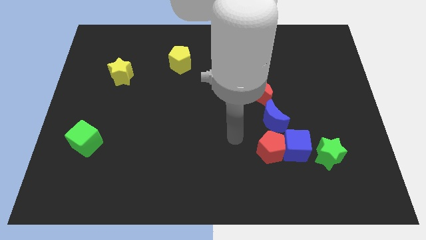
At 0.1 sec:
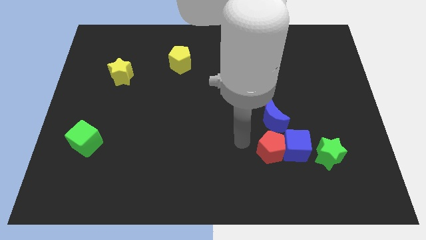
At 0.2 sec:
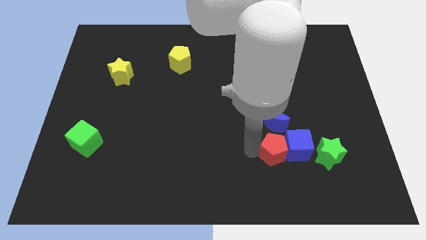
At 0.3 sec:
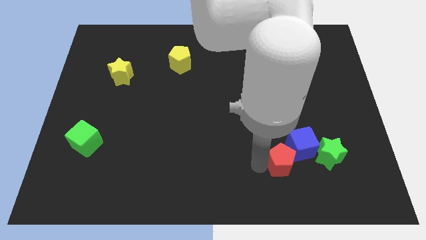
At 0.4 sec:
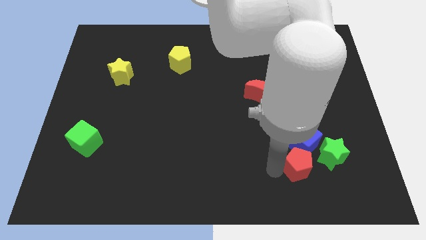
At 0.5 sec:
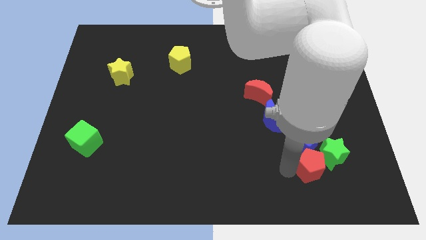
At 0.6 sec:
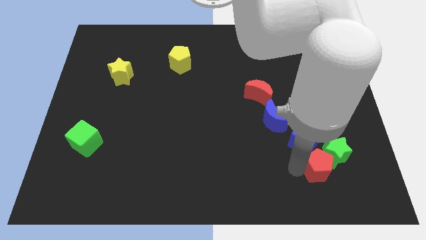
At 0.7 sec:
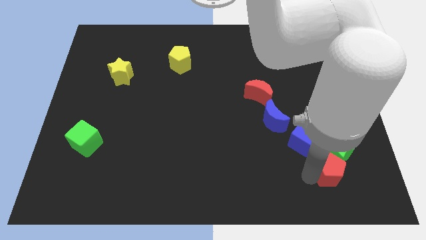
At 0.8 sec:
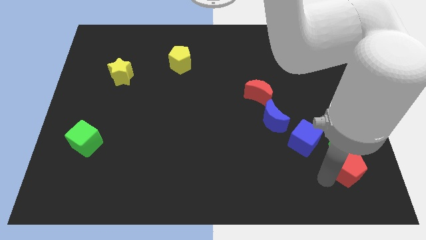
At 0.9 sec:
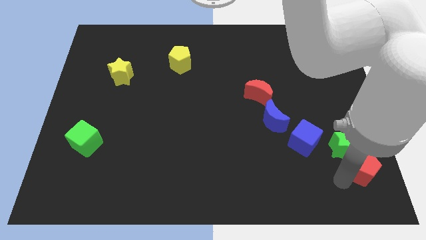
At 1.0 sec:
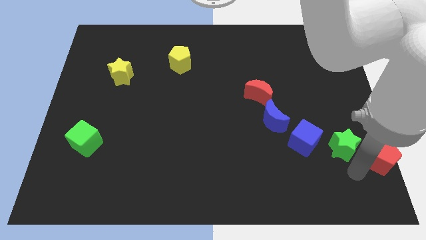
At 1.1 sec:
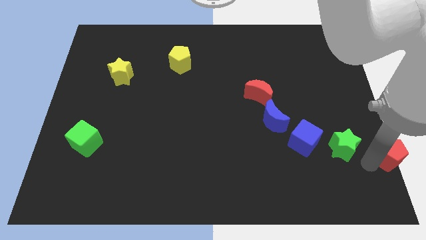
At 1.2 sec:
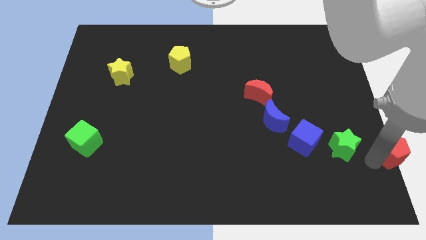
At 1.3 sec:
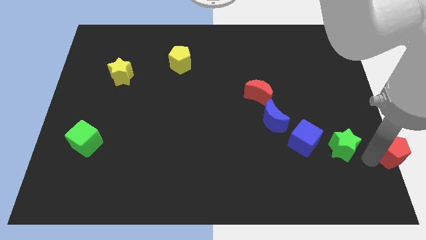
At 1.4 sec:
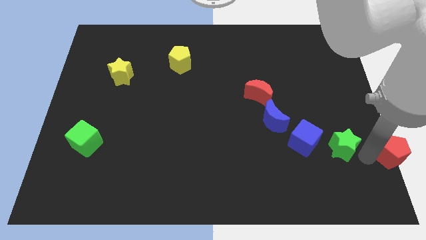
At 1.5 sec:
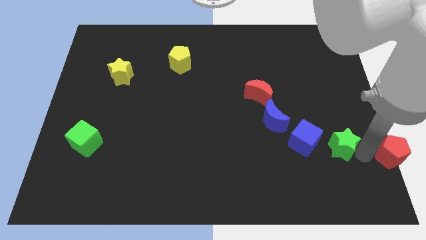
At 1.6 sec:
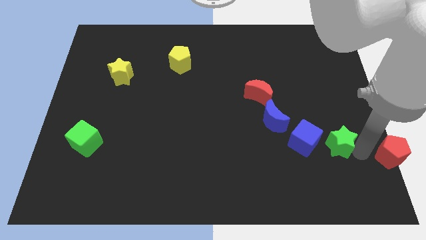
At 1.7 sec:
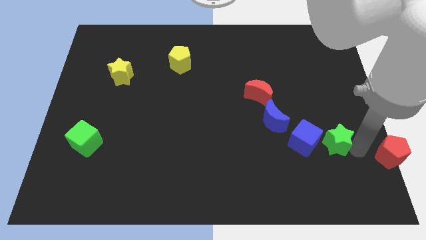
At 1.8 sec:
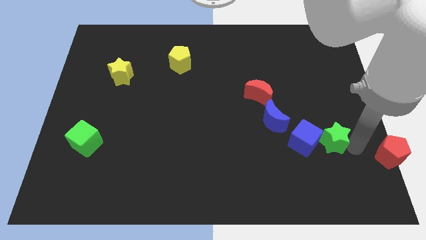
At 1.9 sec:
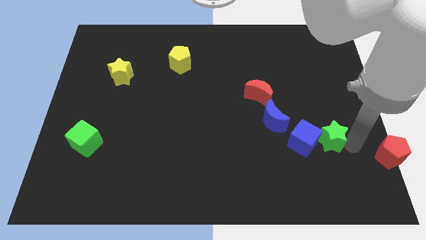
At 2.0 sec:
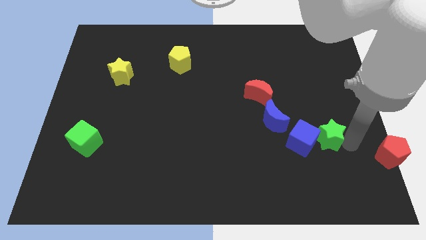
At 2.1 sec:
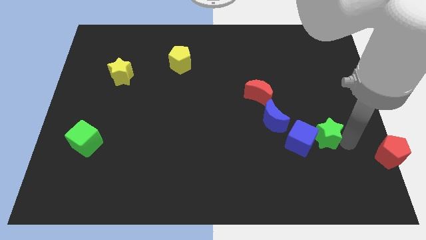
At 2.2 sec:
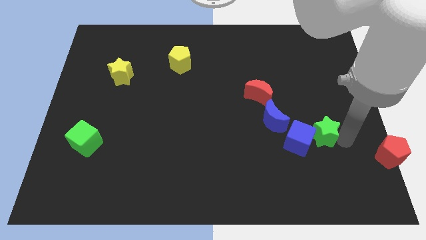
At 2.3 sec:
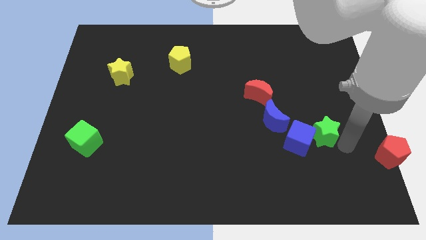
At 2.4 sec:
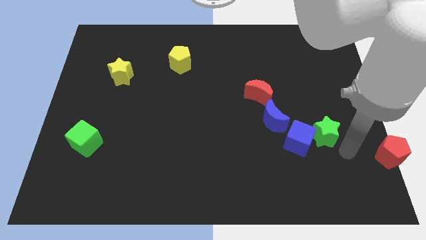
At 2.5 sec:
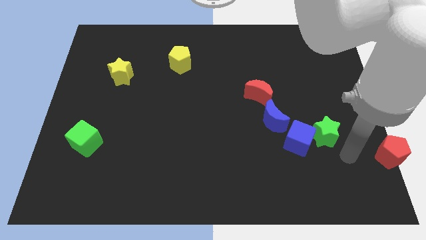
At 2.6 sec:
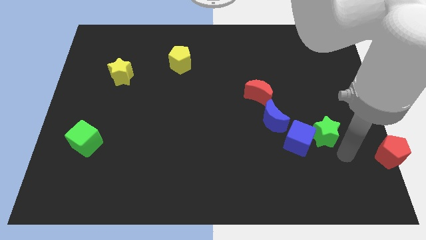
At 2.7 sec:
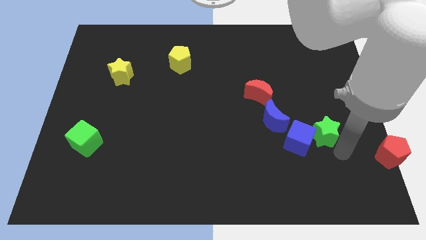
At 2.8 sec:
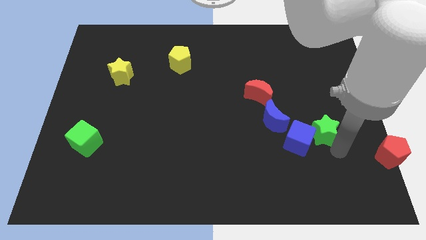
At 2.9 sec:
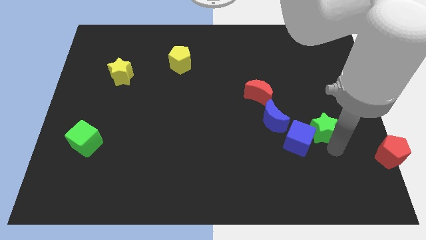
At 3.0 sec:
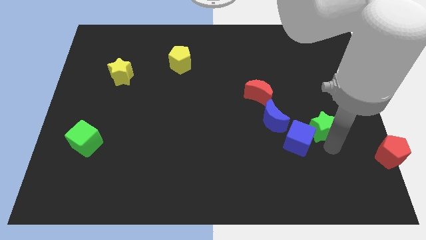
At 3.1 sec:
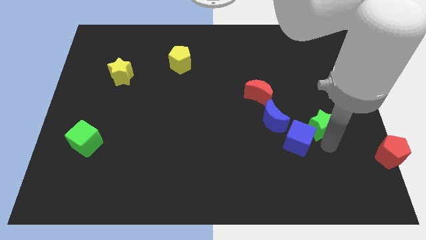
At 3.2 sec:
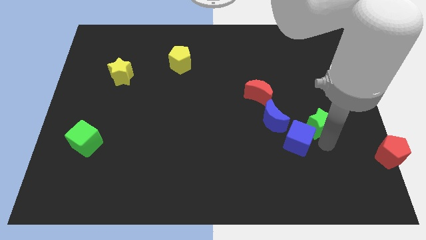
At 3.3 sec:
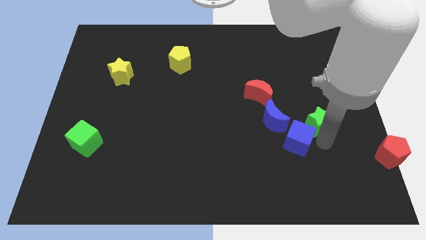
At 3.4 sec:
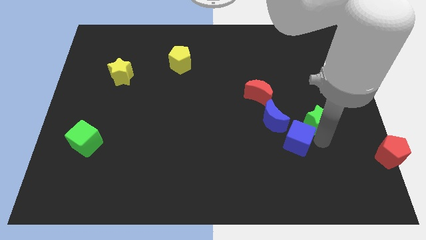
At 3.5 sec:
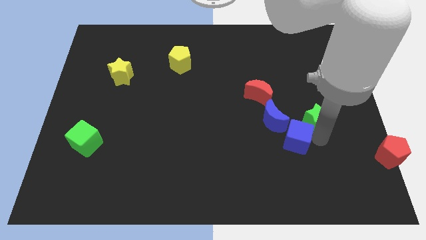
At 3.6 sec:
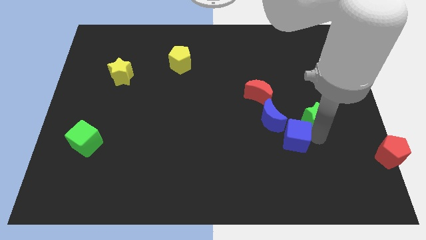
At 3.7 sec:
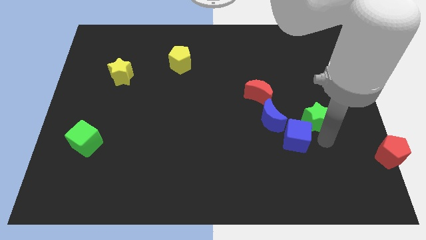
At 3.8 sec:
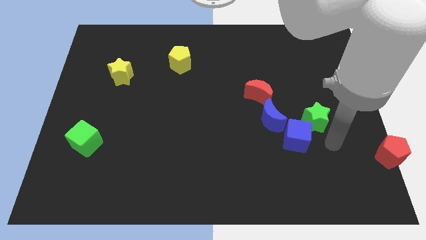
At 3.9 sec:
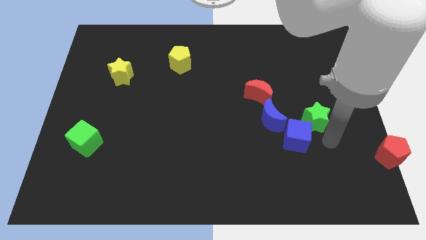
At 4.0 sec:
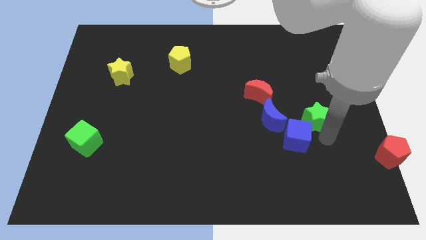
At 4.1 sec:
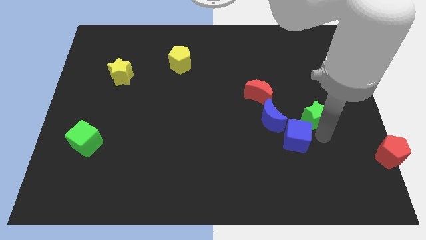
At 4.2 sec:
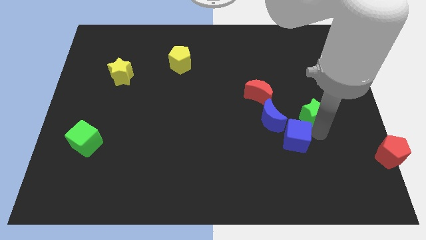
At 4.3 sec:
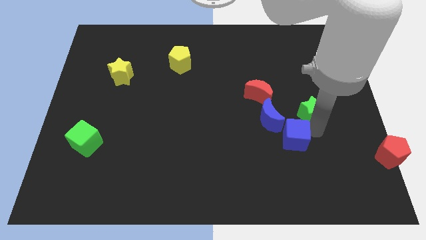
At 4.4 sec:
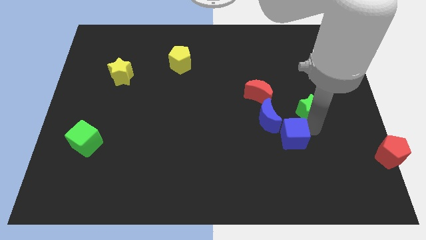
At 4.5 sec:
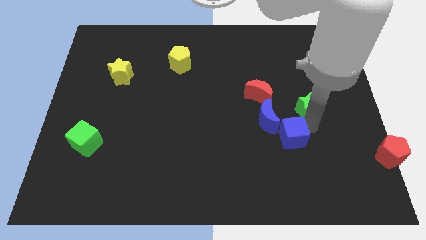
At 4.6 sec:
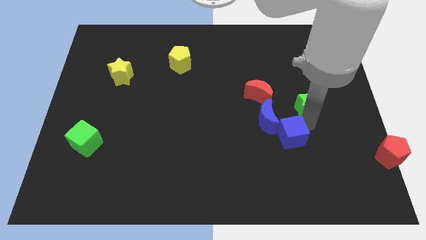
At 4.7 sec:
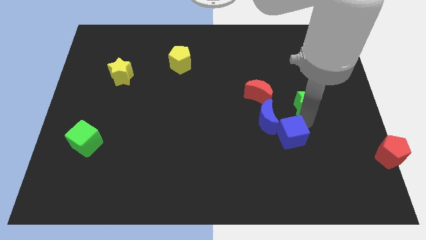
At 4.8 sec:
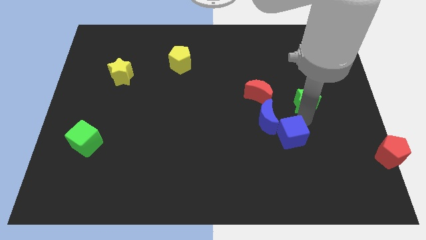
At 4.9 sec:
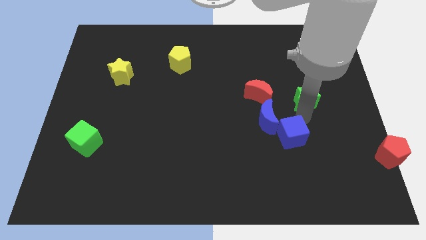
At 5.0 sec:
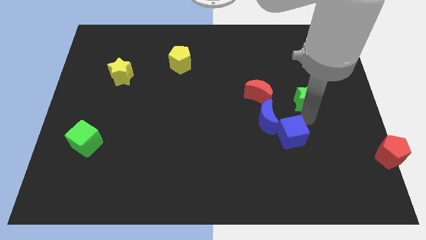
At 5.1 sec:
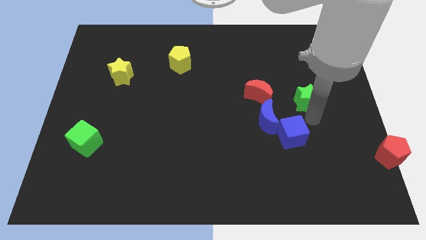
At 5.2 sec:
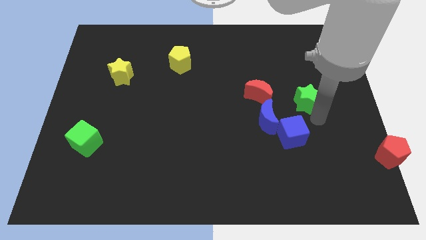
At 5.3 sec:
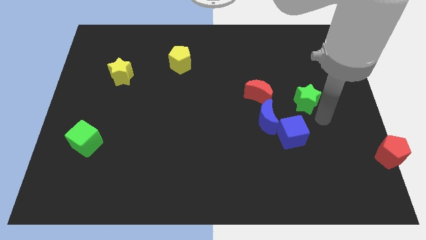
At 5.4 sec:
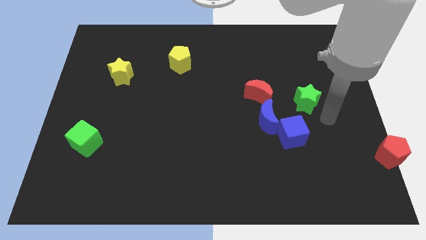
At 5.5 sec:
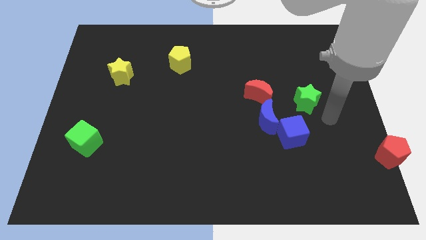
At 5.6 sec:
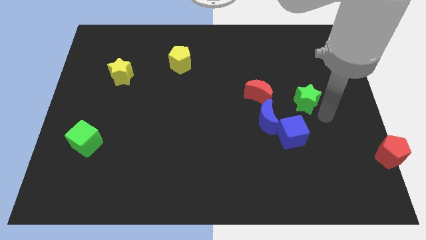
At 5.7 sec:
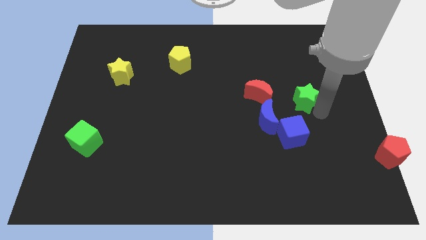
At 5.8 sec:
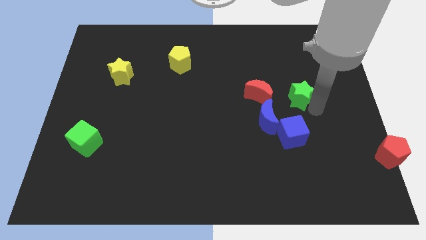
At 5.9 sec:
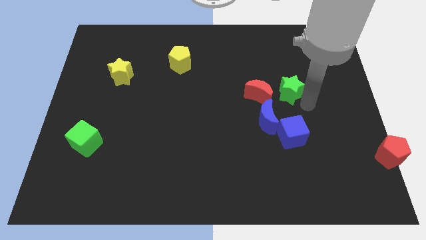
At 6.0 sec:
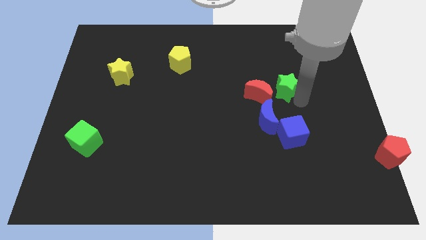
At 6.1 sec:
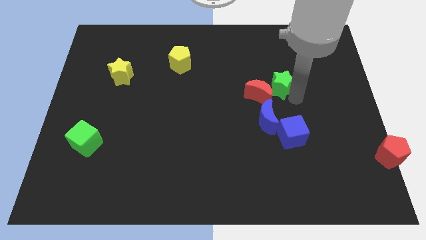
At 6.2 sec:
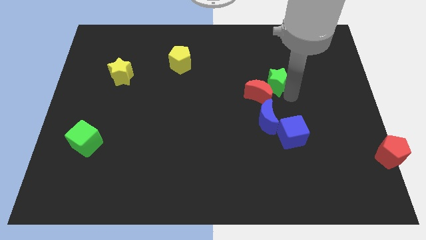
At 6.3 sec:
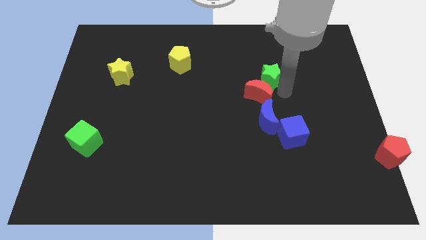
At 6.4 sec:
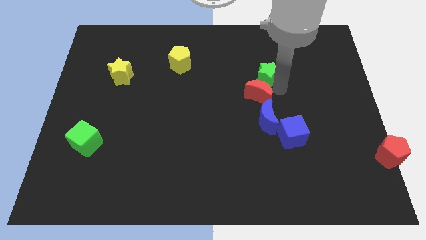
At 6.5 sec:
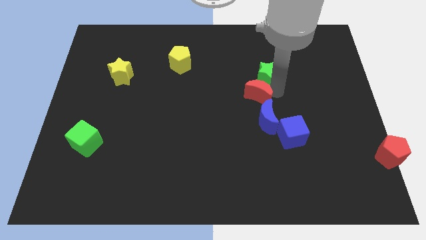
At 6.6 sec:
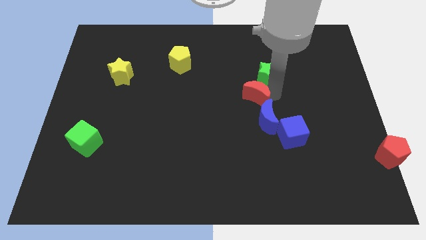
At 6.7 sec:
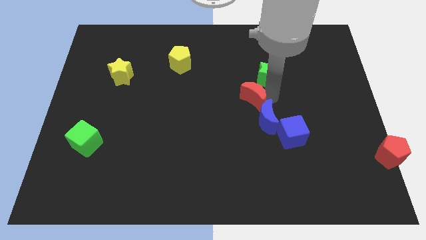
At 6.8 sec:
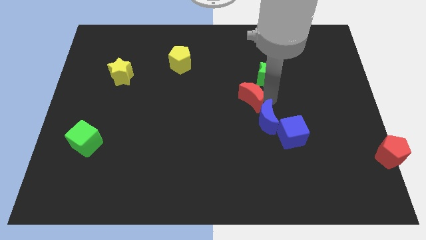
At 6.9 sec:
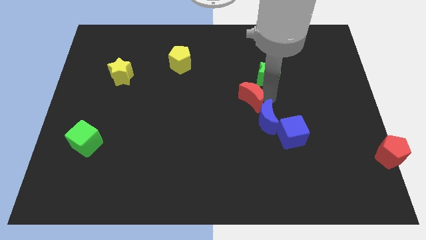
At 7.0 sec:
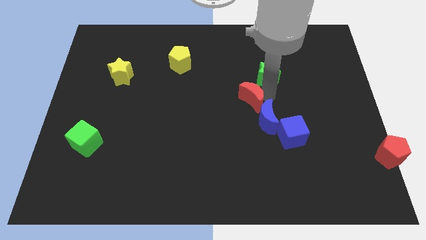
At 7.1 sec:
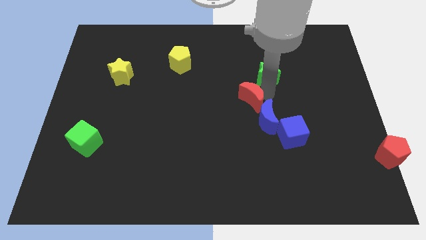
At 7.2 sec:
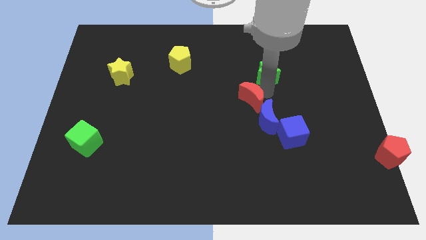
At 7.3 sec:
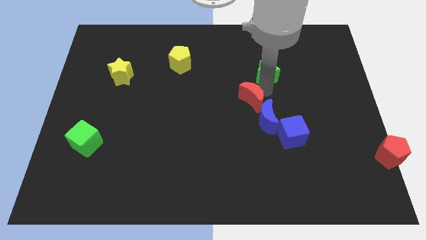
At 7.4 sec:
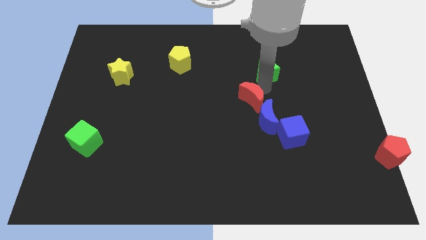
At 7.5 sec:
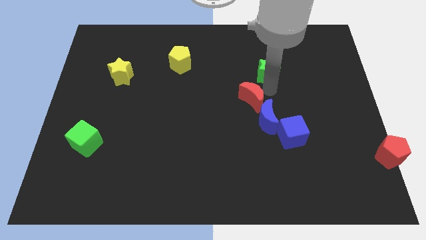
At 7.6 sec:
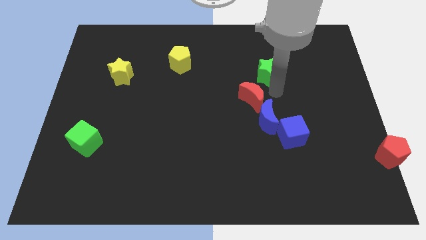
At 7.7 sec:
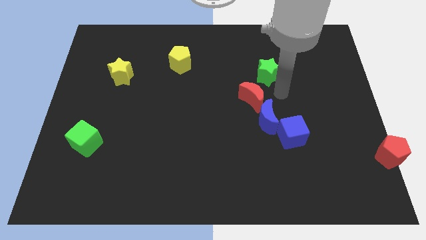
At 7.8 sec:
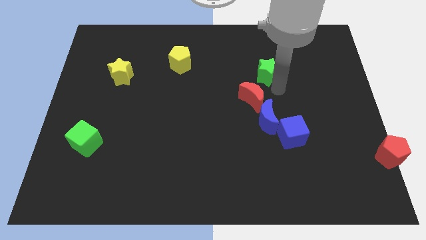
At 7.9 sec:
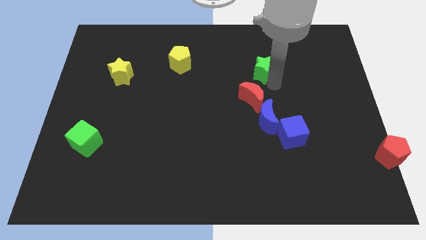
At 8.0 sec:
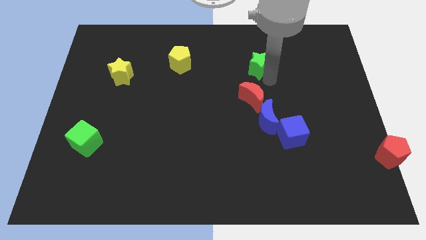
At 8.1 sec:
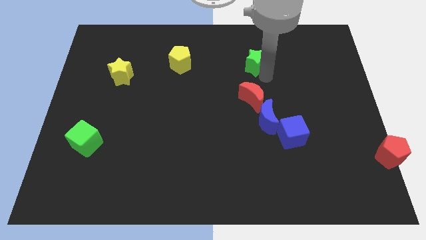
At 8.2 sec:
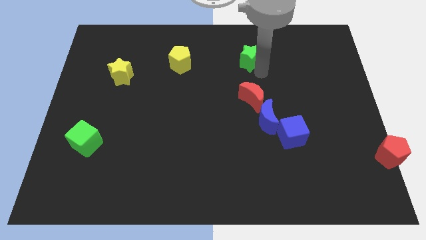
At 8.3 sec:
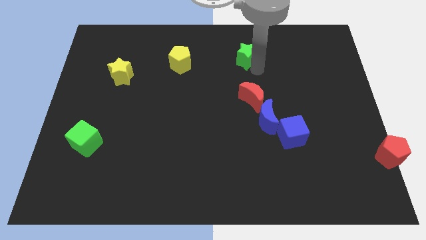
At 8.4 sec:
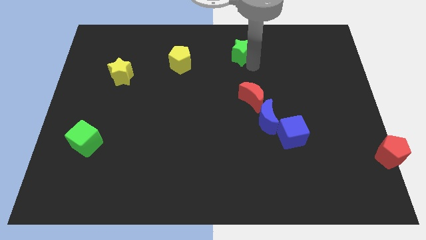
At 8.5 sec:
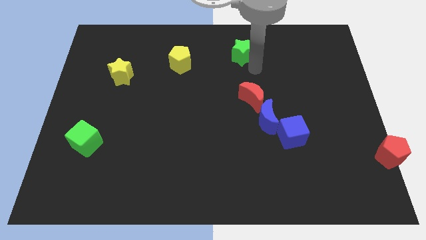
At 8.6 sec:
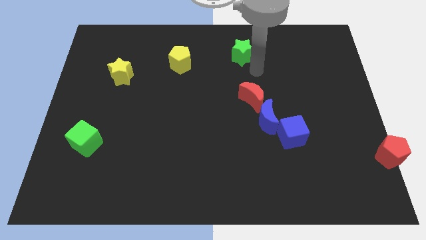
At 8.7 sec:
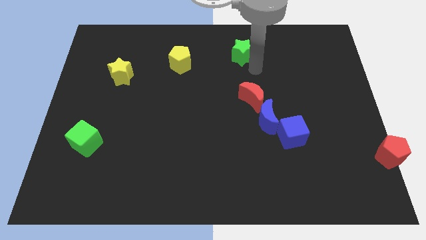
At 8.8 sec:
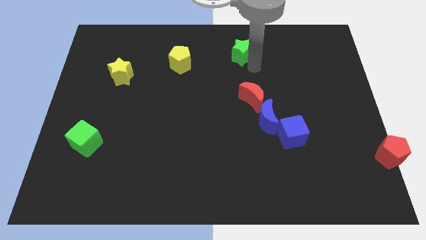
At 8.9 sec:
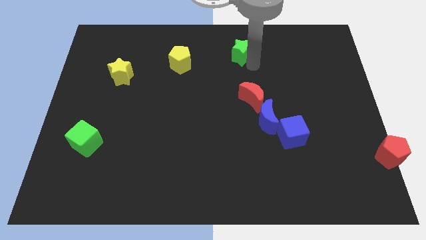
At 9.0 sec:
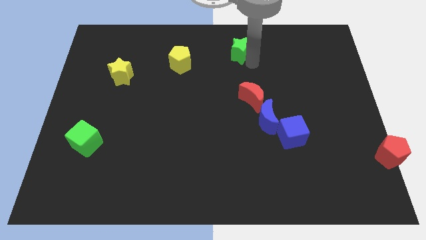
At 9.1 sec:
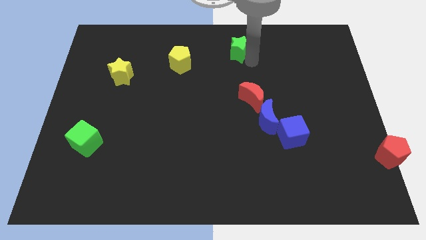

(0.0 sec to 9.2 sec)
move the green star to the top
